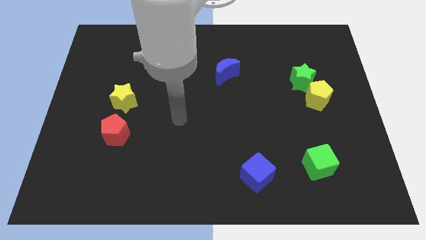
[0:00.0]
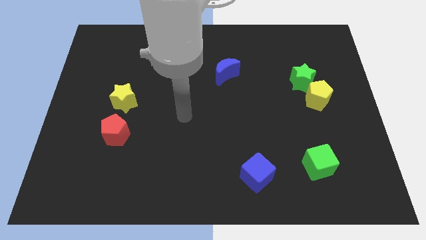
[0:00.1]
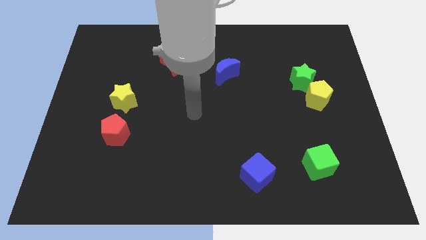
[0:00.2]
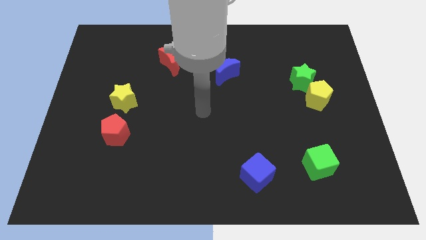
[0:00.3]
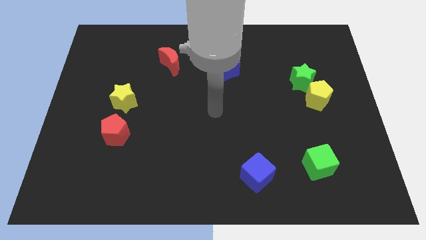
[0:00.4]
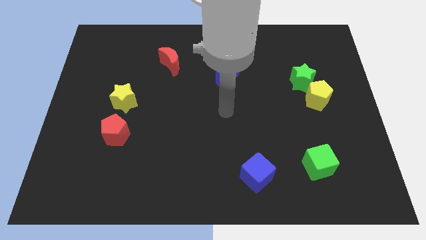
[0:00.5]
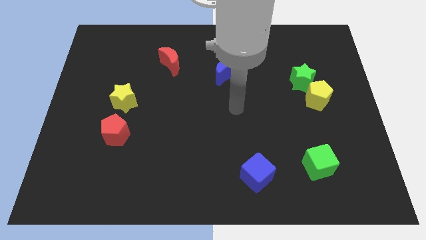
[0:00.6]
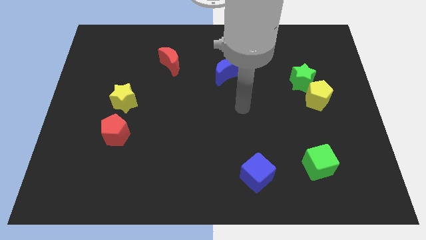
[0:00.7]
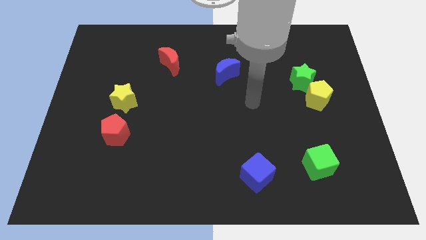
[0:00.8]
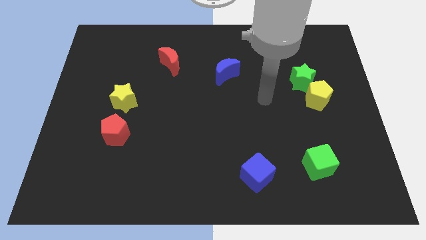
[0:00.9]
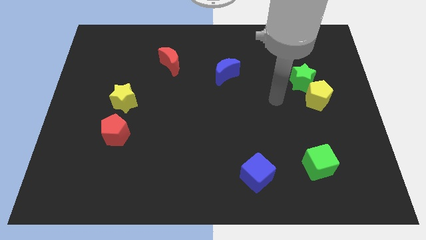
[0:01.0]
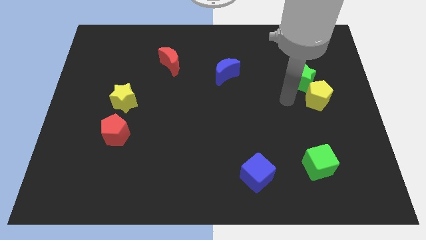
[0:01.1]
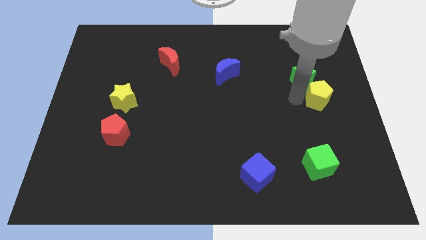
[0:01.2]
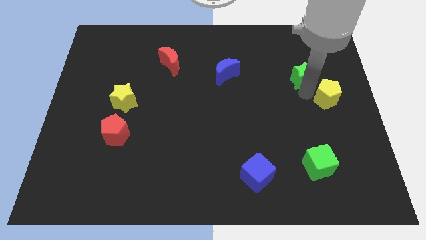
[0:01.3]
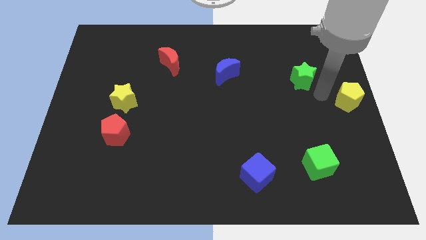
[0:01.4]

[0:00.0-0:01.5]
move the green star away from the yellow pentagon

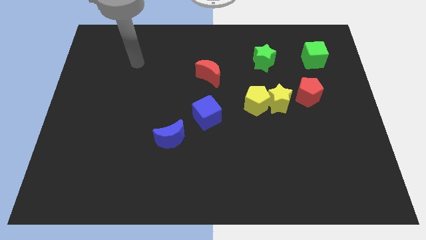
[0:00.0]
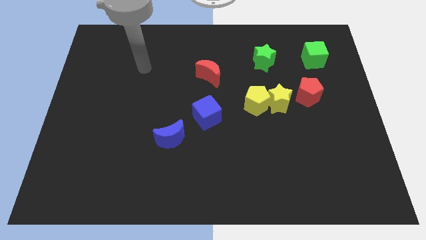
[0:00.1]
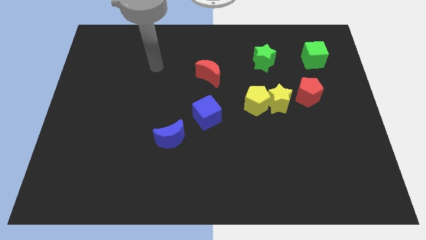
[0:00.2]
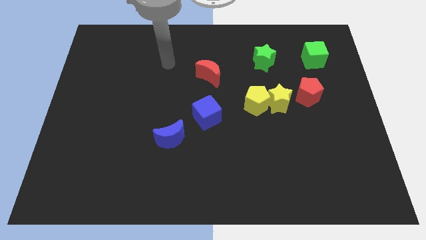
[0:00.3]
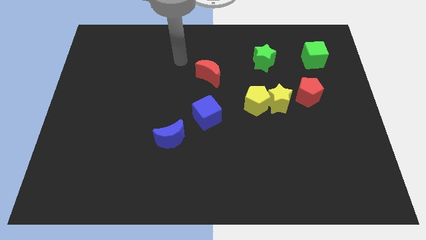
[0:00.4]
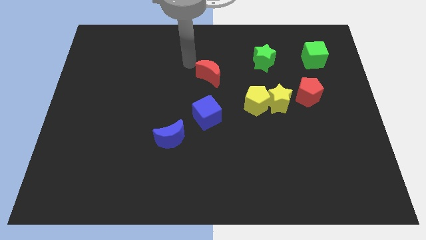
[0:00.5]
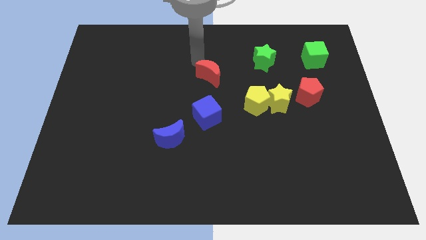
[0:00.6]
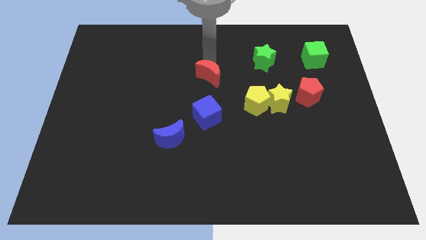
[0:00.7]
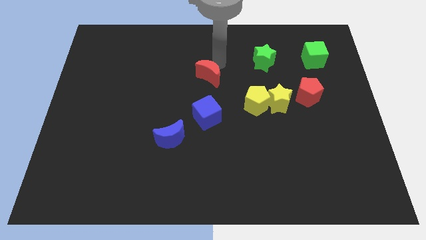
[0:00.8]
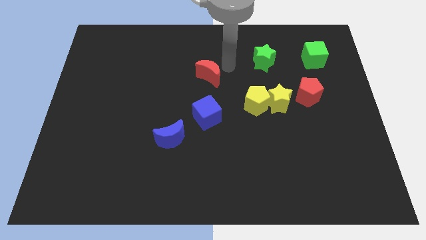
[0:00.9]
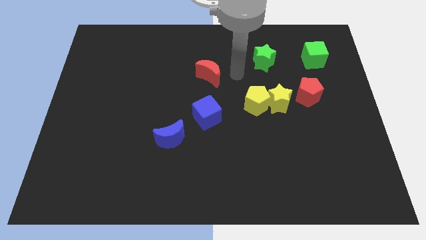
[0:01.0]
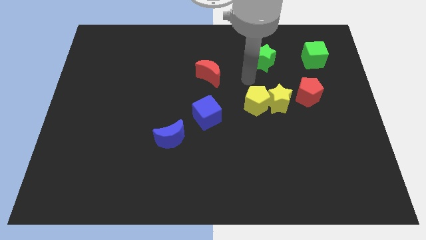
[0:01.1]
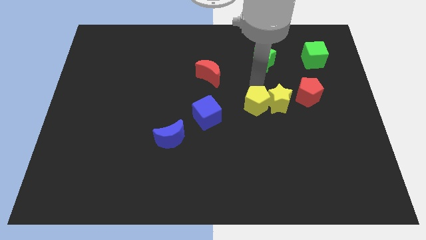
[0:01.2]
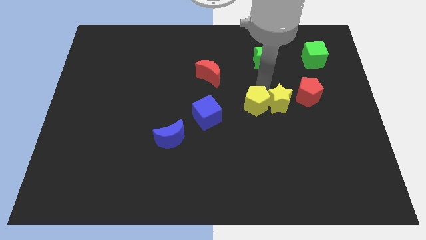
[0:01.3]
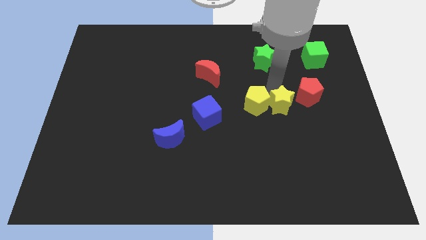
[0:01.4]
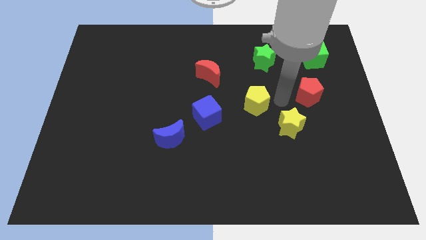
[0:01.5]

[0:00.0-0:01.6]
move the yellow pentagon away from the yellow star

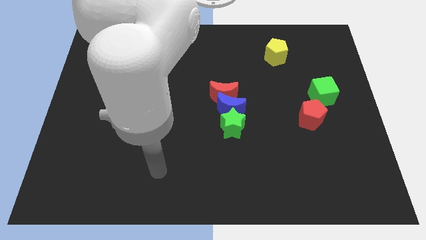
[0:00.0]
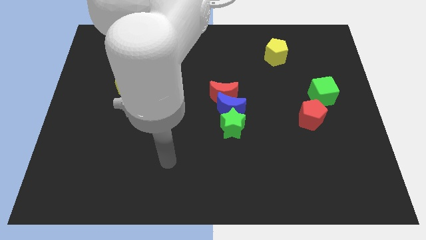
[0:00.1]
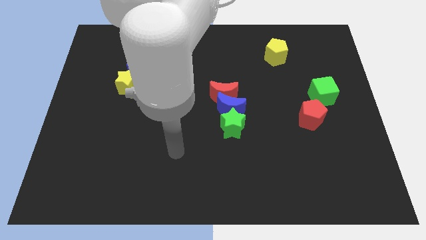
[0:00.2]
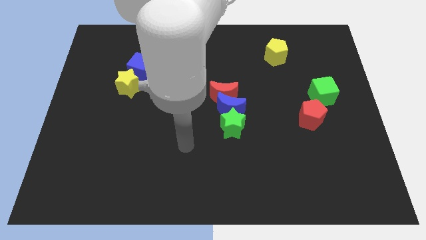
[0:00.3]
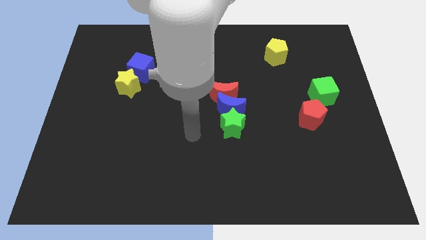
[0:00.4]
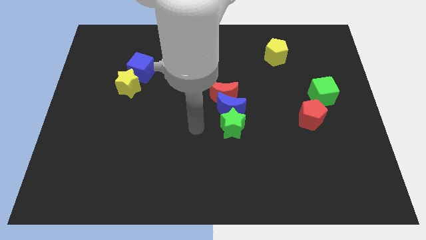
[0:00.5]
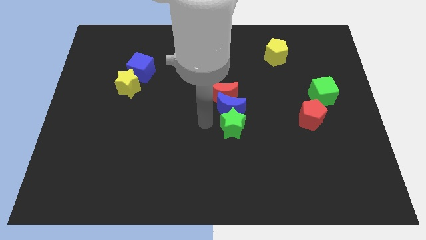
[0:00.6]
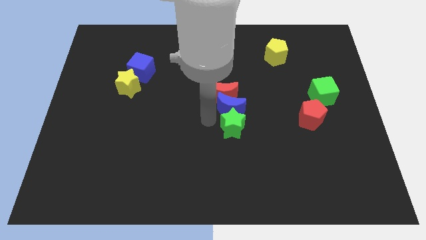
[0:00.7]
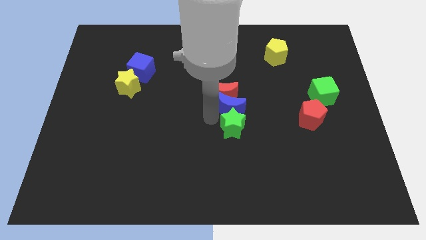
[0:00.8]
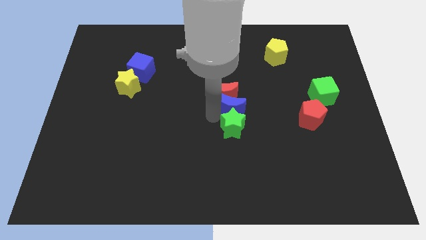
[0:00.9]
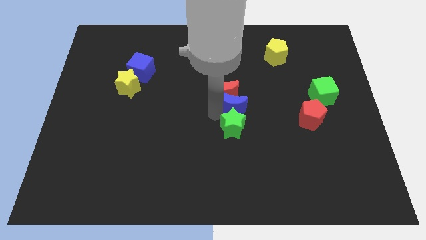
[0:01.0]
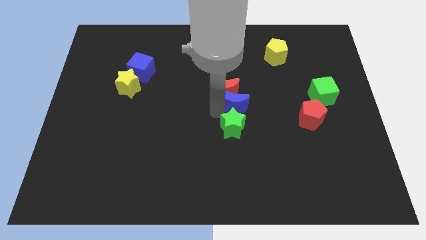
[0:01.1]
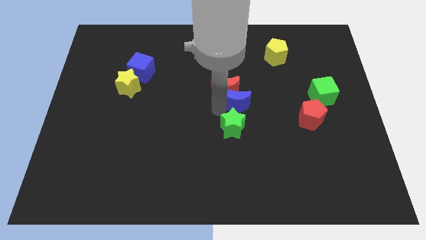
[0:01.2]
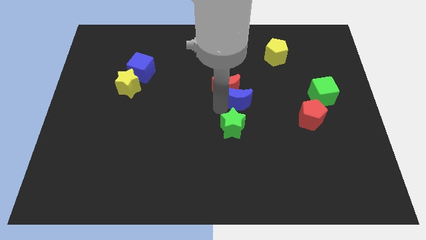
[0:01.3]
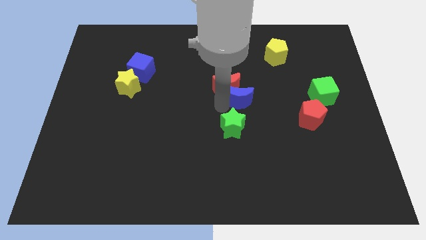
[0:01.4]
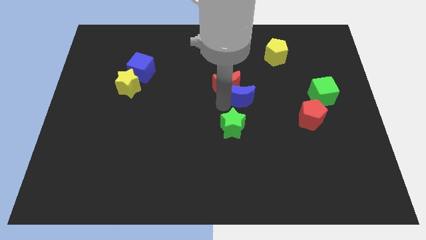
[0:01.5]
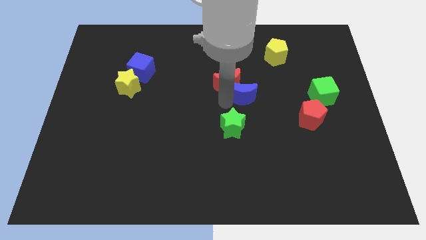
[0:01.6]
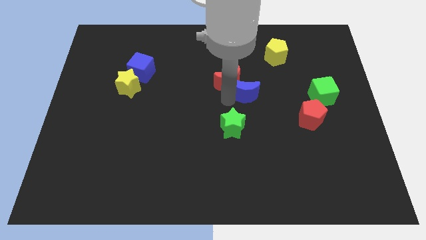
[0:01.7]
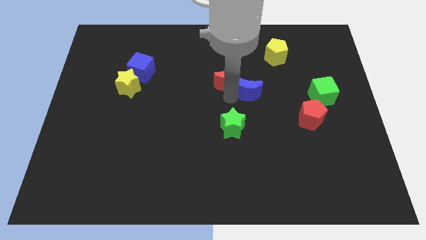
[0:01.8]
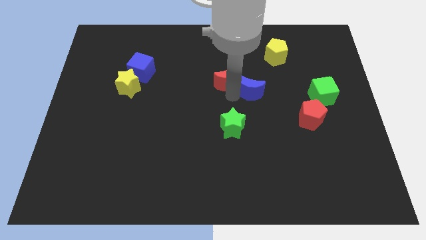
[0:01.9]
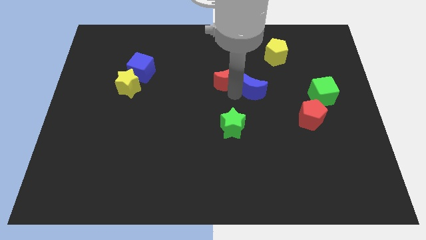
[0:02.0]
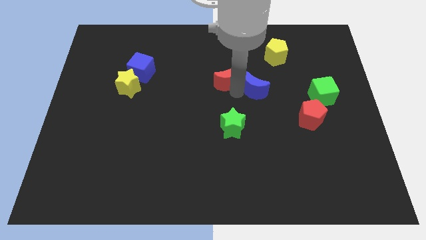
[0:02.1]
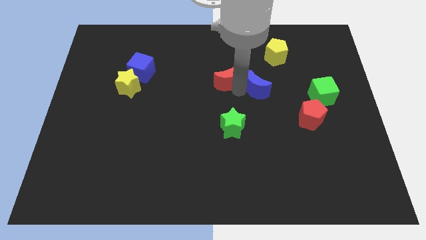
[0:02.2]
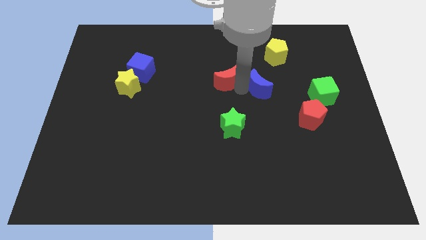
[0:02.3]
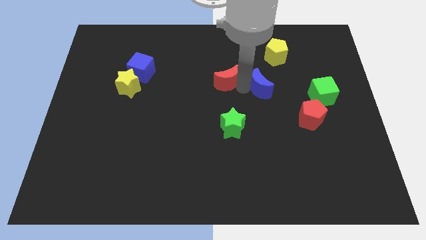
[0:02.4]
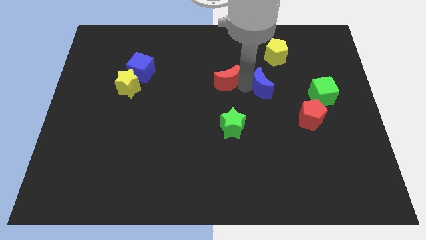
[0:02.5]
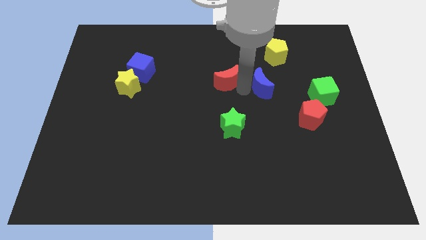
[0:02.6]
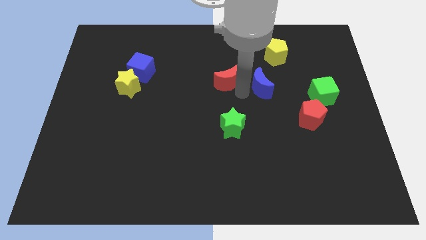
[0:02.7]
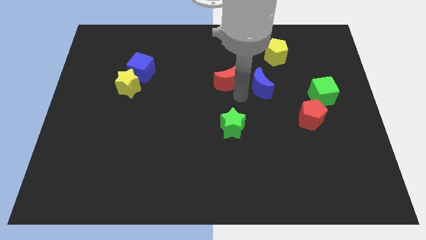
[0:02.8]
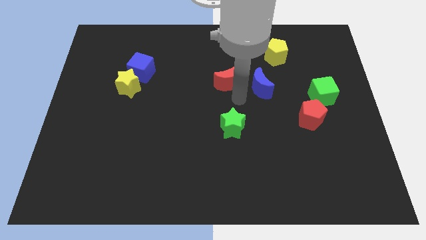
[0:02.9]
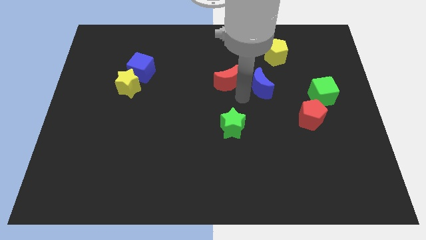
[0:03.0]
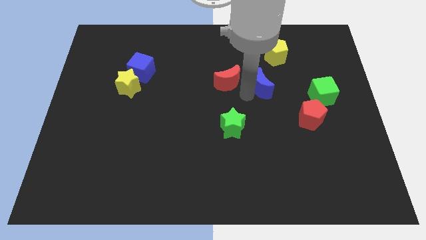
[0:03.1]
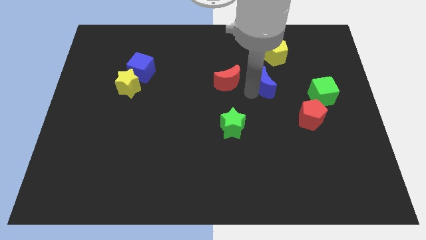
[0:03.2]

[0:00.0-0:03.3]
pull the blue moon apart from the red moon and green star

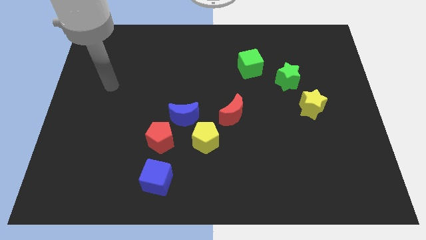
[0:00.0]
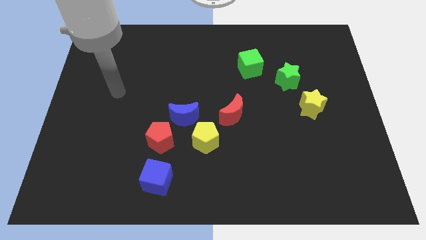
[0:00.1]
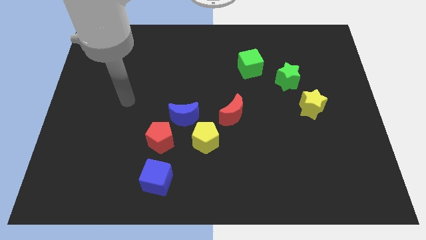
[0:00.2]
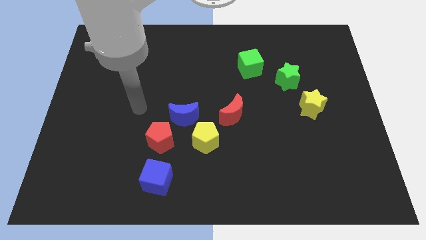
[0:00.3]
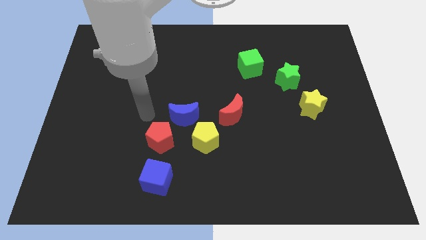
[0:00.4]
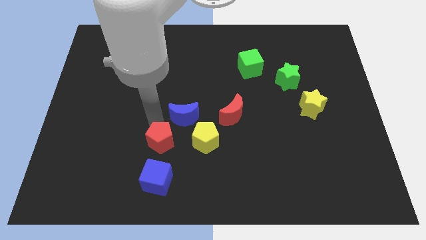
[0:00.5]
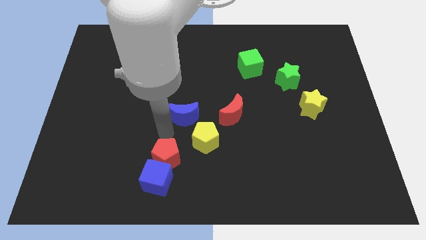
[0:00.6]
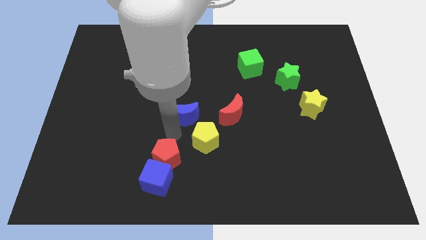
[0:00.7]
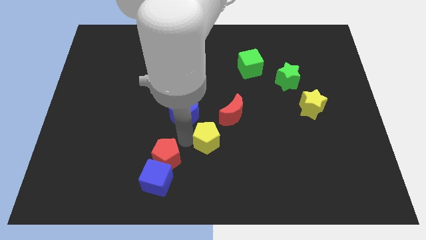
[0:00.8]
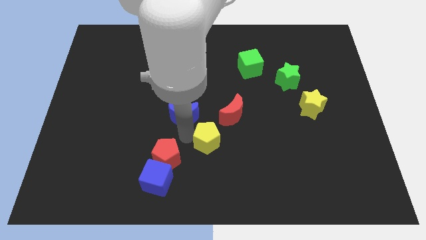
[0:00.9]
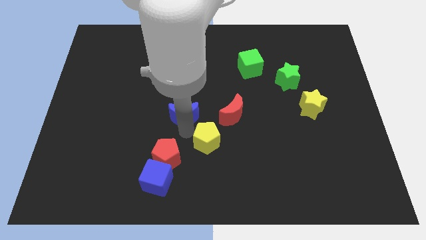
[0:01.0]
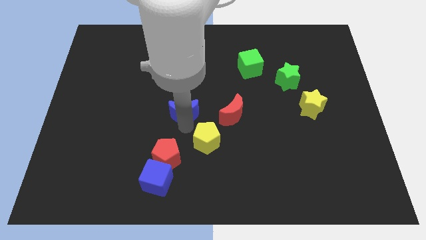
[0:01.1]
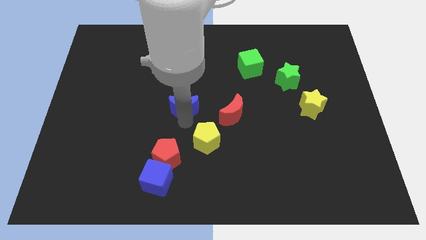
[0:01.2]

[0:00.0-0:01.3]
separate the blue moon from the yellow pentagon and red pentagon

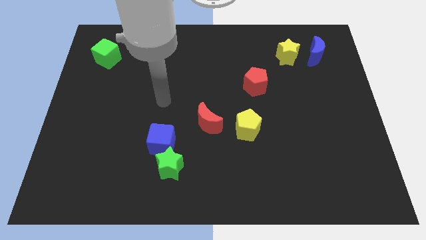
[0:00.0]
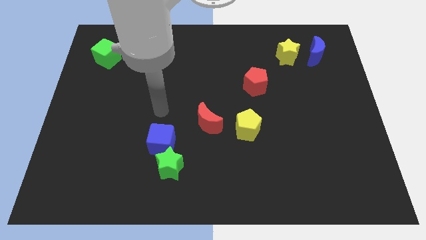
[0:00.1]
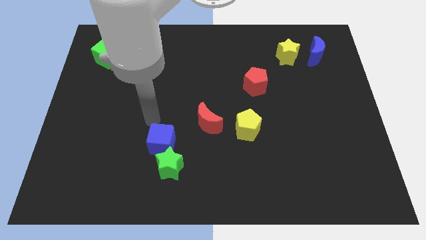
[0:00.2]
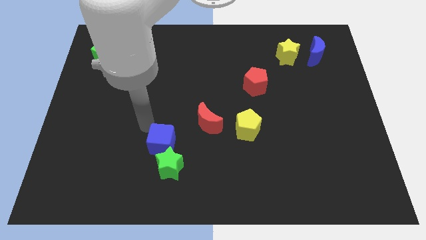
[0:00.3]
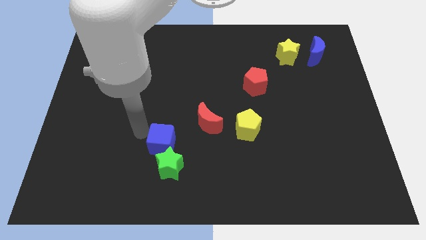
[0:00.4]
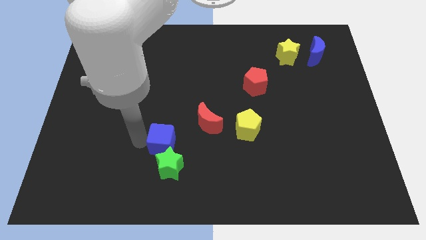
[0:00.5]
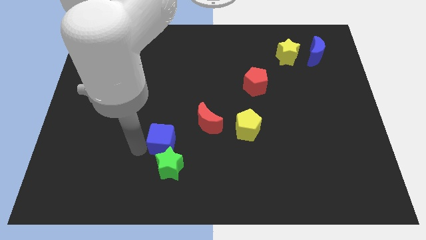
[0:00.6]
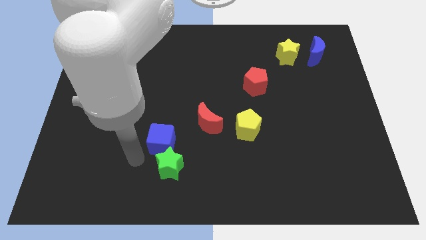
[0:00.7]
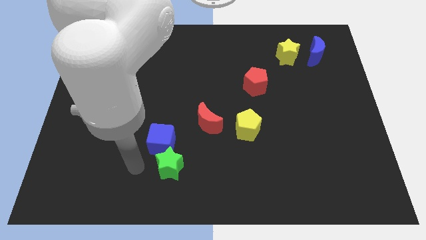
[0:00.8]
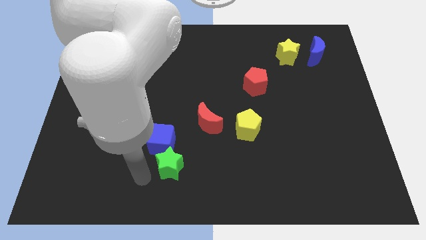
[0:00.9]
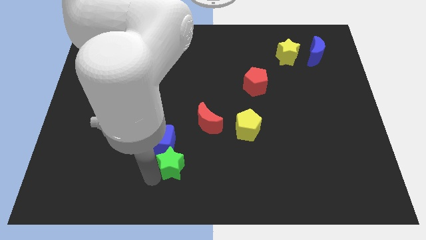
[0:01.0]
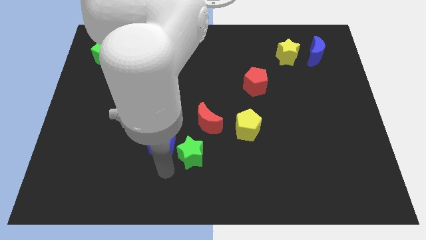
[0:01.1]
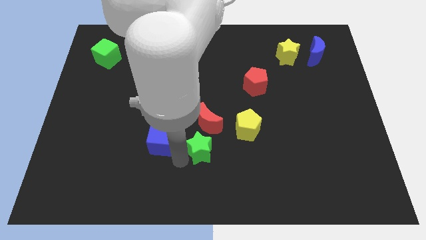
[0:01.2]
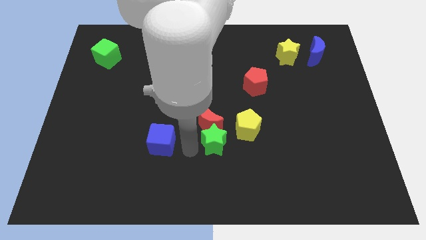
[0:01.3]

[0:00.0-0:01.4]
separate the blue cube from the green star

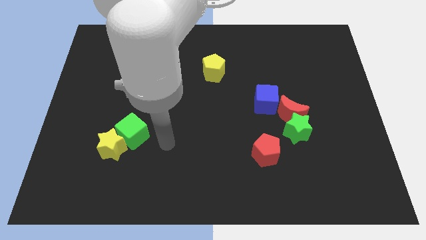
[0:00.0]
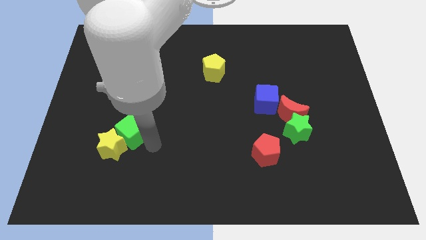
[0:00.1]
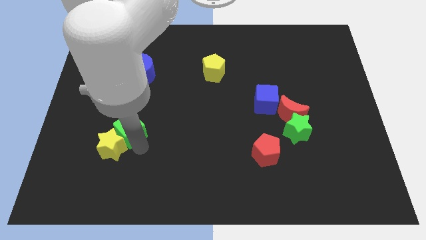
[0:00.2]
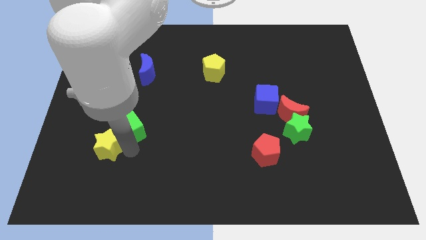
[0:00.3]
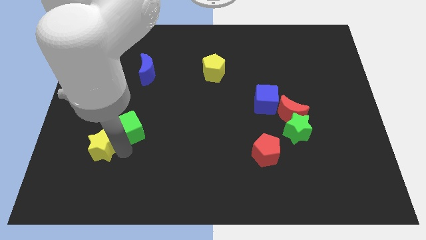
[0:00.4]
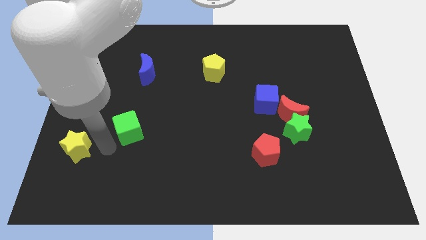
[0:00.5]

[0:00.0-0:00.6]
pull the green cube apart from the yellow star
